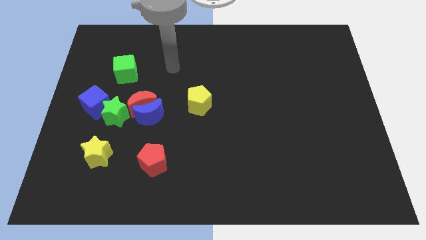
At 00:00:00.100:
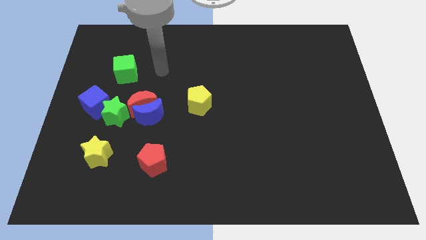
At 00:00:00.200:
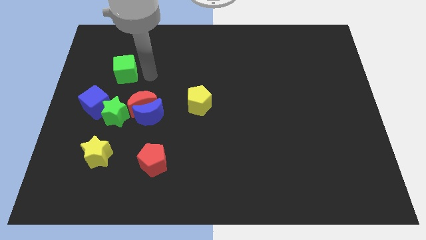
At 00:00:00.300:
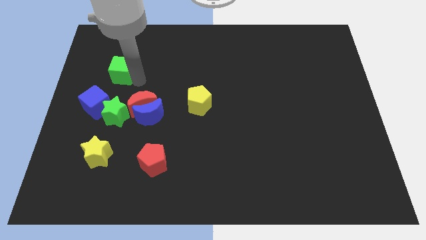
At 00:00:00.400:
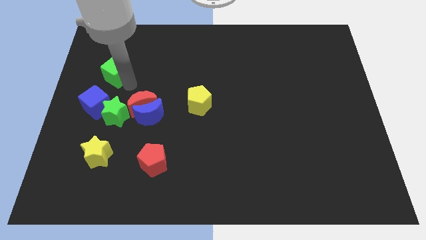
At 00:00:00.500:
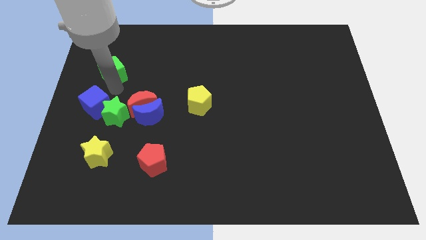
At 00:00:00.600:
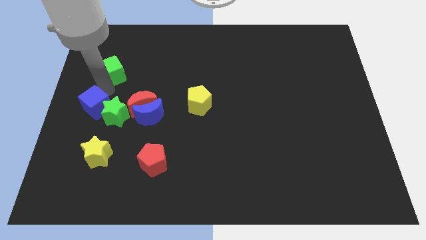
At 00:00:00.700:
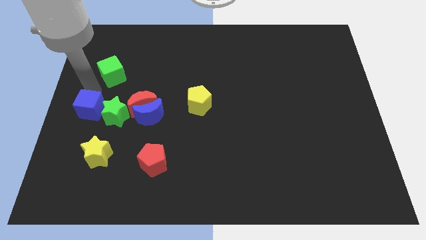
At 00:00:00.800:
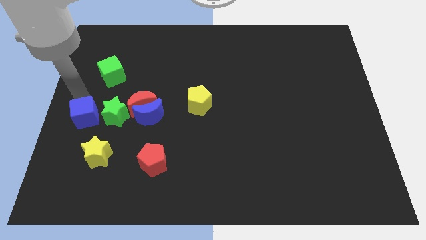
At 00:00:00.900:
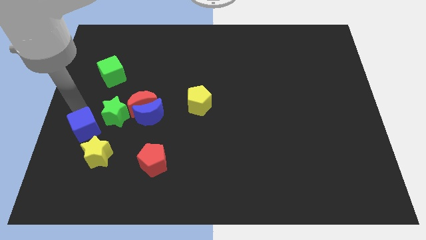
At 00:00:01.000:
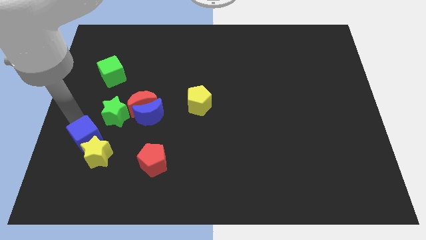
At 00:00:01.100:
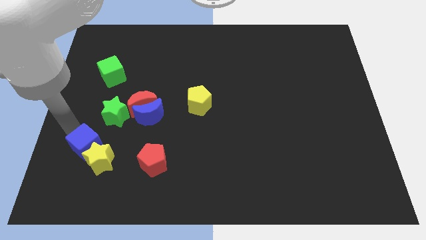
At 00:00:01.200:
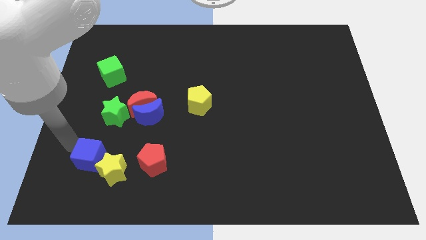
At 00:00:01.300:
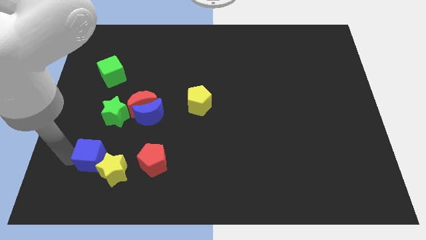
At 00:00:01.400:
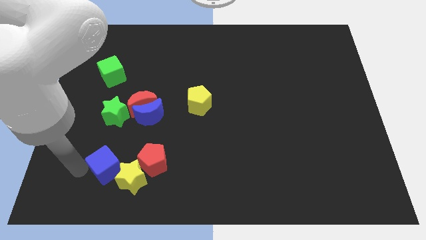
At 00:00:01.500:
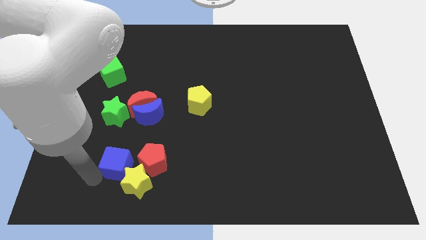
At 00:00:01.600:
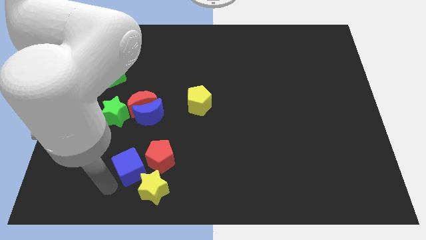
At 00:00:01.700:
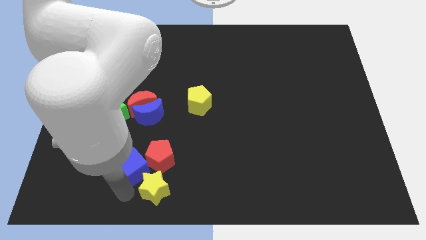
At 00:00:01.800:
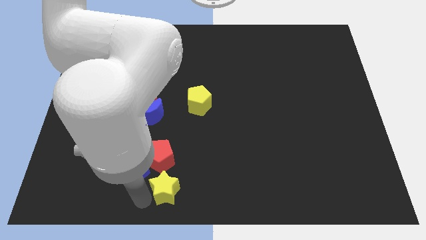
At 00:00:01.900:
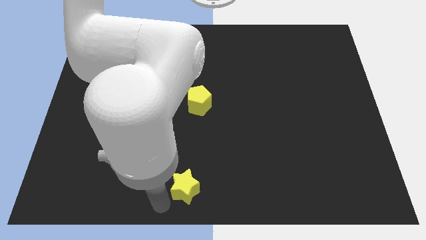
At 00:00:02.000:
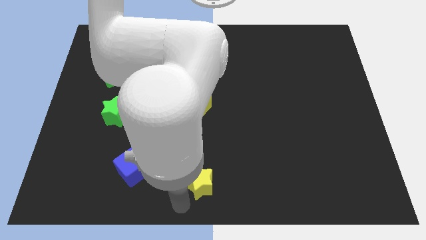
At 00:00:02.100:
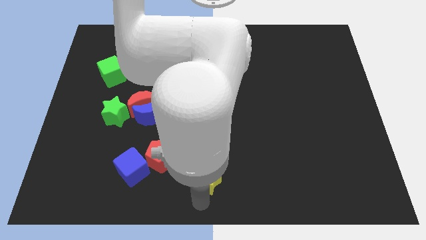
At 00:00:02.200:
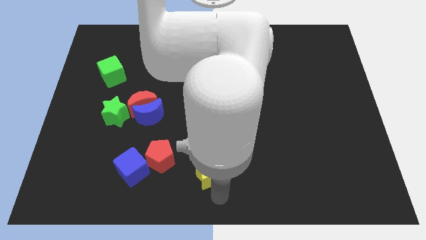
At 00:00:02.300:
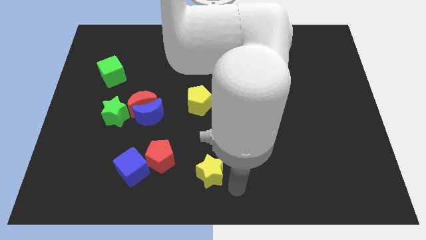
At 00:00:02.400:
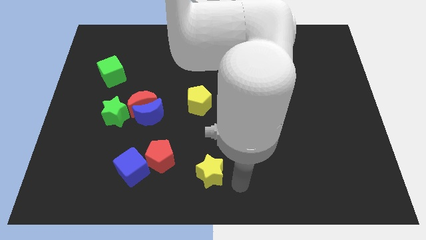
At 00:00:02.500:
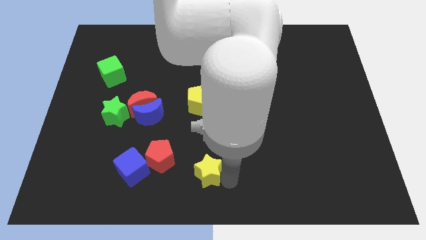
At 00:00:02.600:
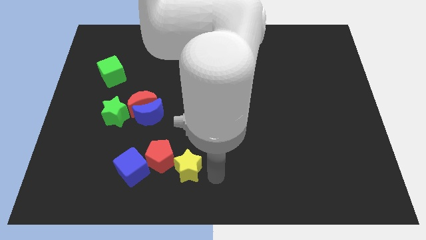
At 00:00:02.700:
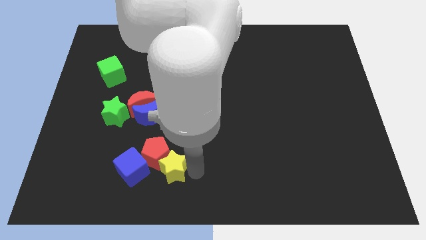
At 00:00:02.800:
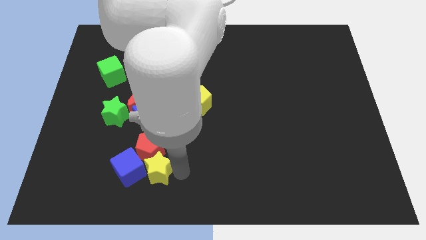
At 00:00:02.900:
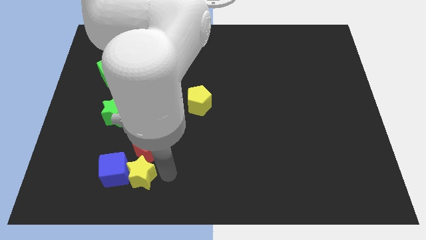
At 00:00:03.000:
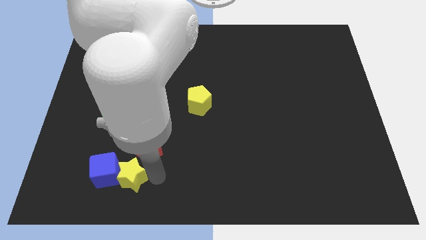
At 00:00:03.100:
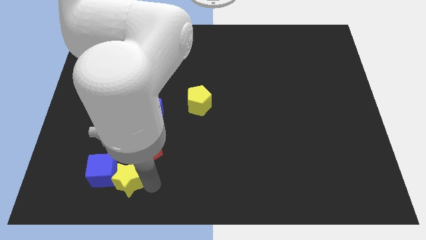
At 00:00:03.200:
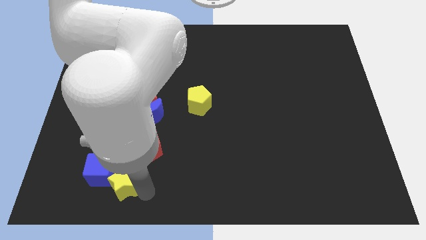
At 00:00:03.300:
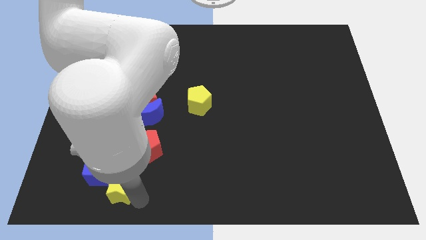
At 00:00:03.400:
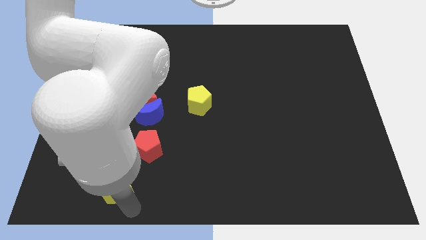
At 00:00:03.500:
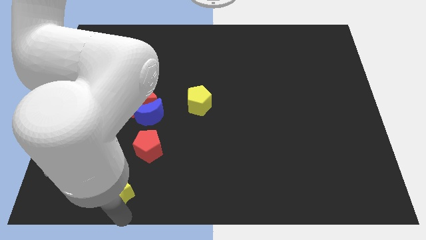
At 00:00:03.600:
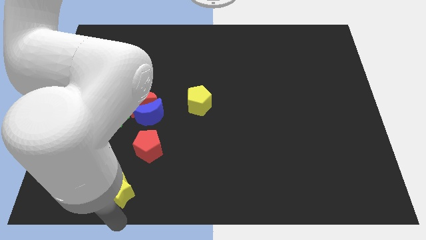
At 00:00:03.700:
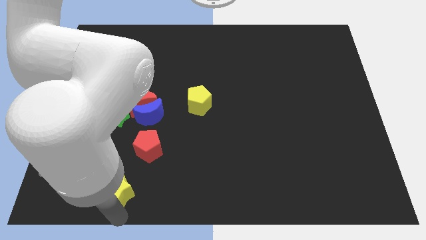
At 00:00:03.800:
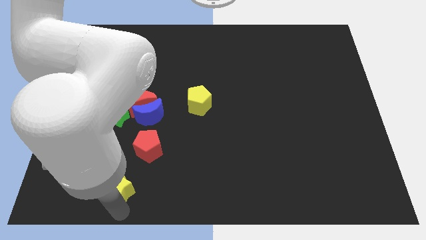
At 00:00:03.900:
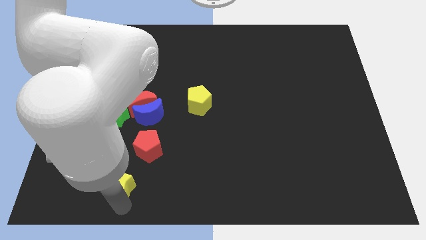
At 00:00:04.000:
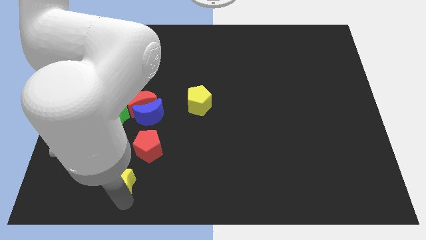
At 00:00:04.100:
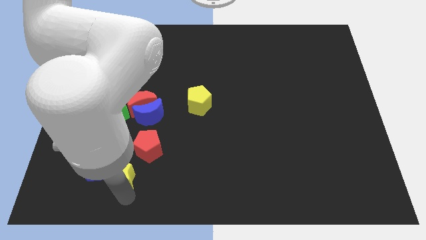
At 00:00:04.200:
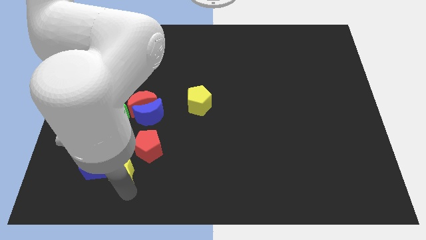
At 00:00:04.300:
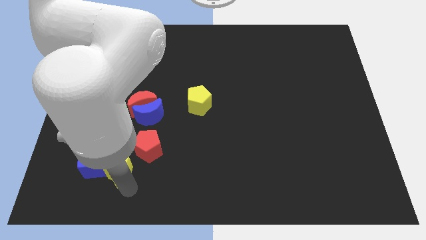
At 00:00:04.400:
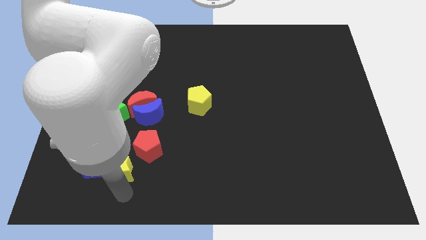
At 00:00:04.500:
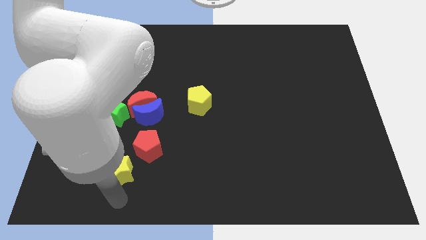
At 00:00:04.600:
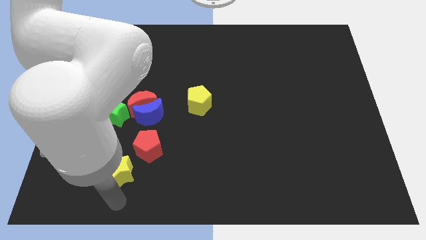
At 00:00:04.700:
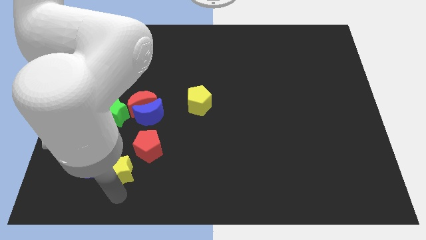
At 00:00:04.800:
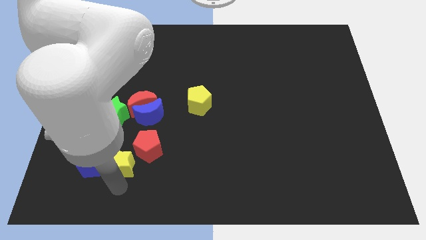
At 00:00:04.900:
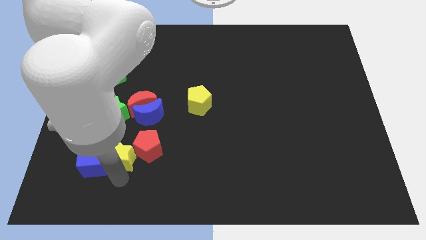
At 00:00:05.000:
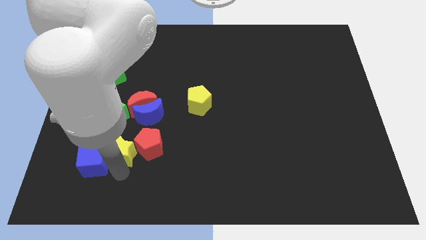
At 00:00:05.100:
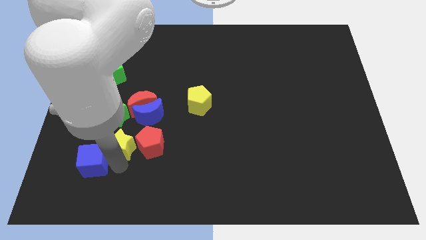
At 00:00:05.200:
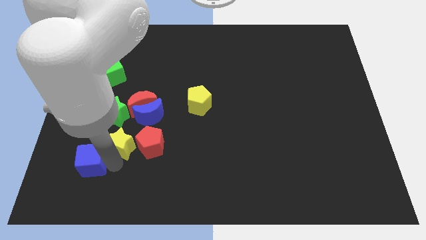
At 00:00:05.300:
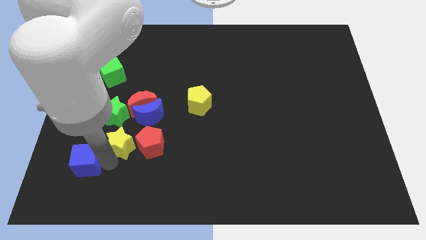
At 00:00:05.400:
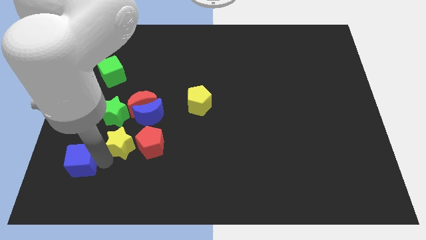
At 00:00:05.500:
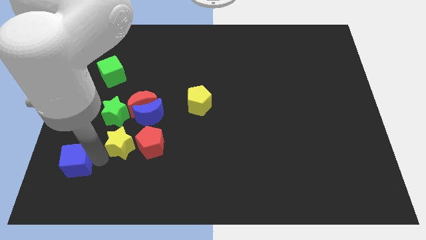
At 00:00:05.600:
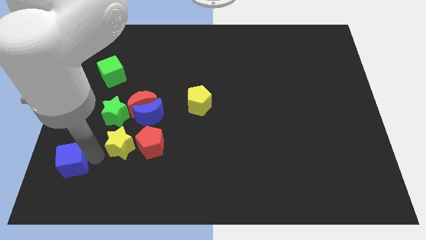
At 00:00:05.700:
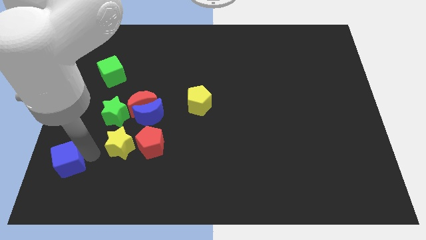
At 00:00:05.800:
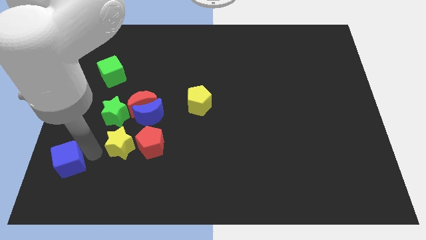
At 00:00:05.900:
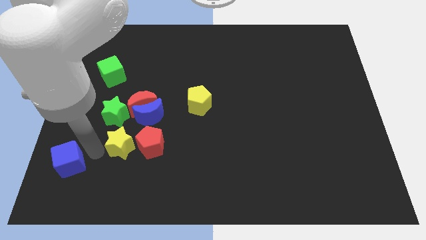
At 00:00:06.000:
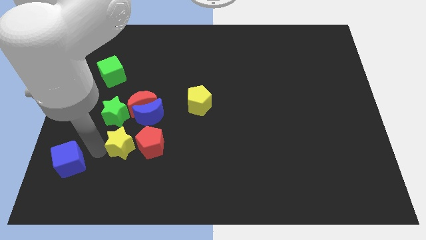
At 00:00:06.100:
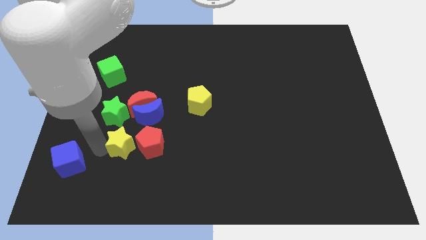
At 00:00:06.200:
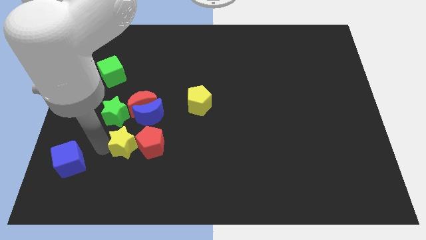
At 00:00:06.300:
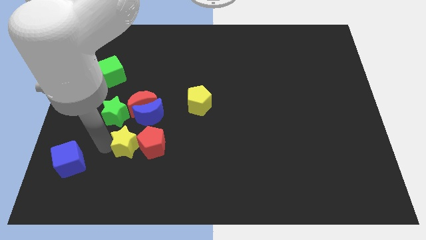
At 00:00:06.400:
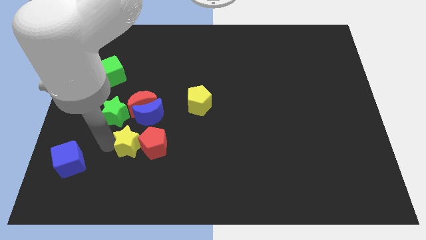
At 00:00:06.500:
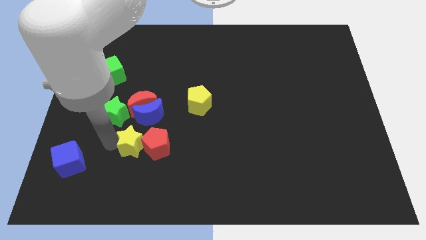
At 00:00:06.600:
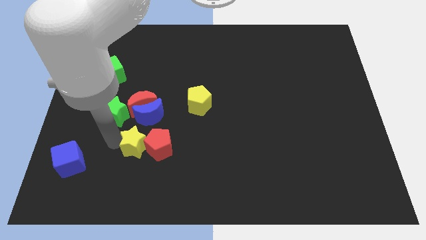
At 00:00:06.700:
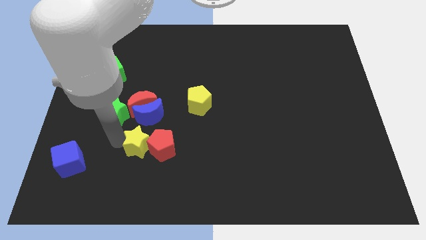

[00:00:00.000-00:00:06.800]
slightly push the yellow star upwards and to the right

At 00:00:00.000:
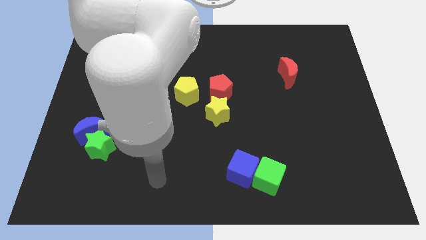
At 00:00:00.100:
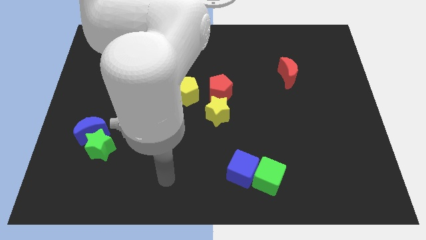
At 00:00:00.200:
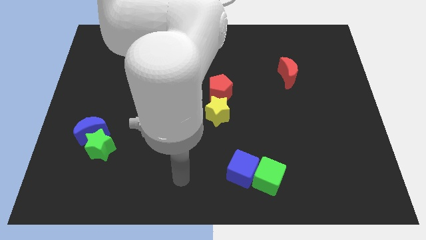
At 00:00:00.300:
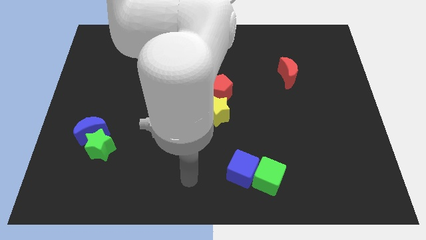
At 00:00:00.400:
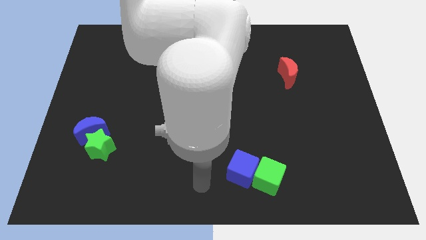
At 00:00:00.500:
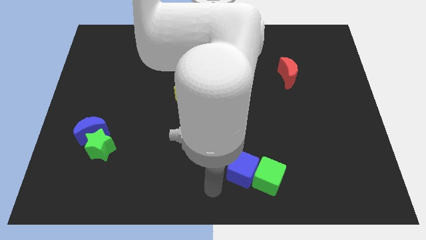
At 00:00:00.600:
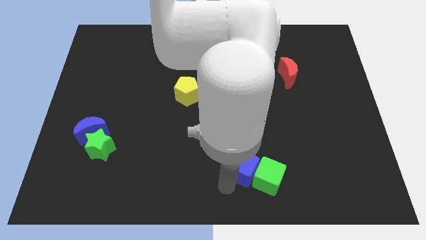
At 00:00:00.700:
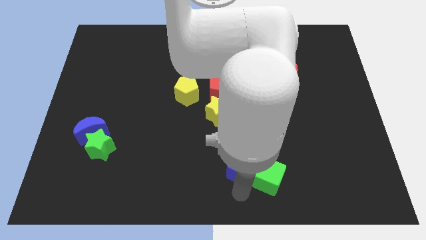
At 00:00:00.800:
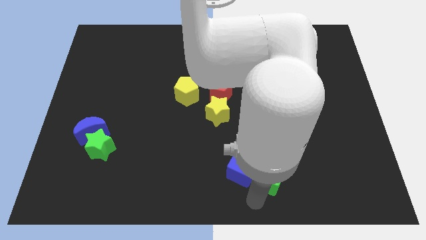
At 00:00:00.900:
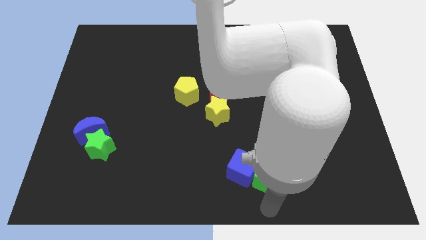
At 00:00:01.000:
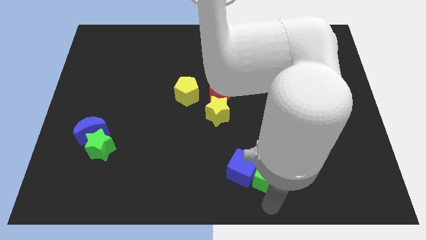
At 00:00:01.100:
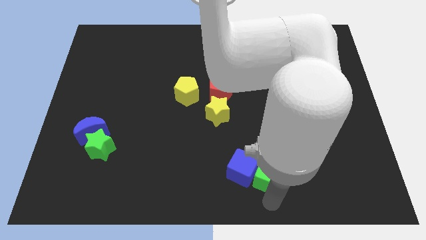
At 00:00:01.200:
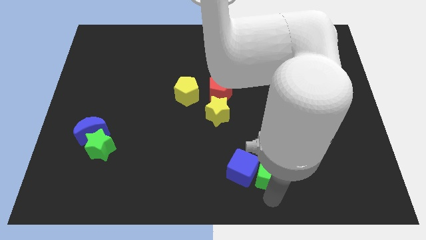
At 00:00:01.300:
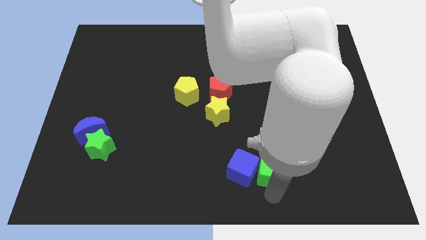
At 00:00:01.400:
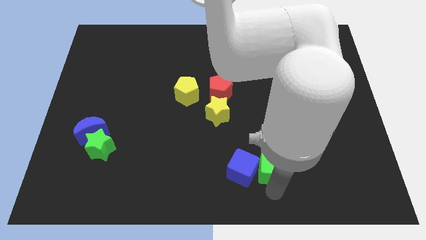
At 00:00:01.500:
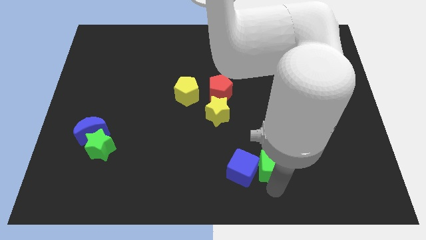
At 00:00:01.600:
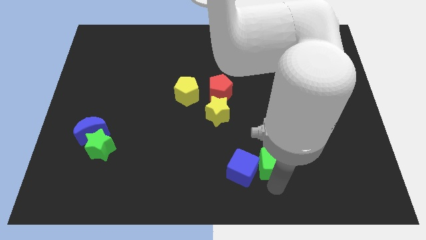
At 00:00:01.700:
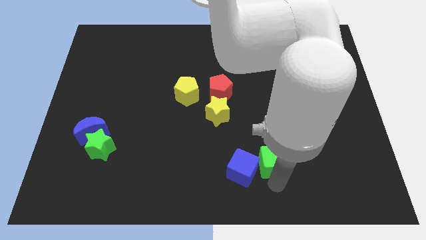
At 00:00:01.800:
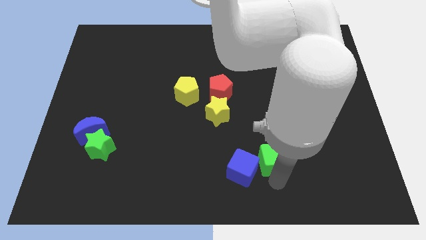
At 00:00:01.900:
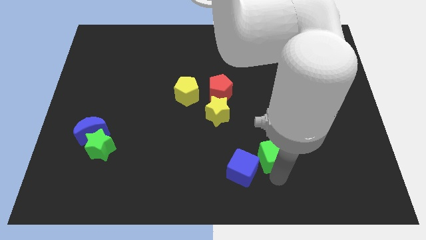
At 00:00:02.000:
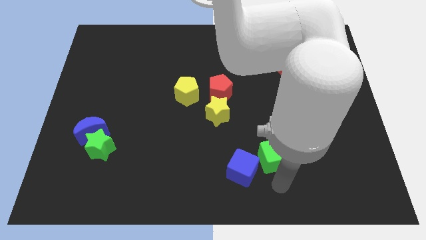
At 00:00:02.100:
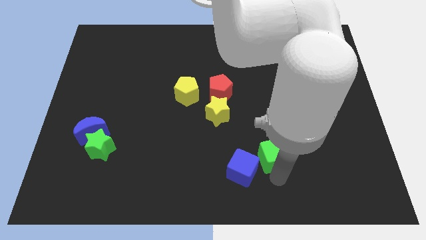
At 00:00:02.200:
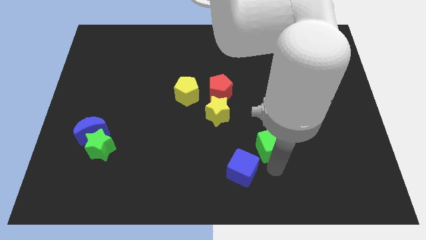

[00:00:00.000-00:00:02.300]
move the green cube upwards slightly
